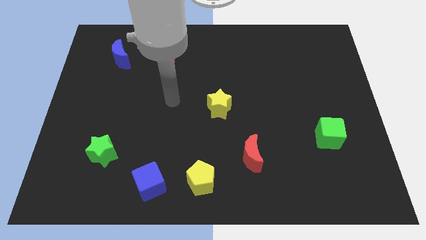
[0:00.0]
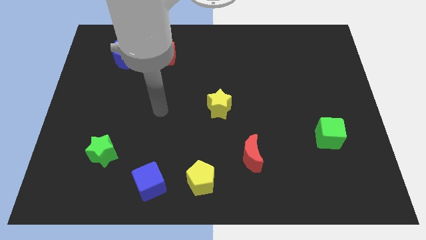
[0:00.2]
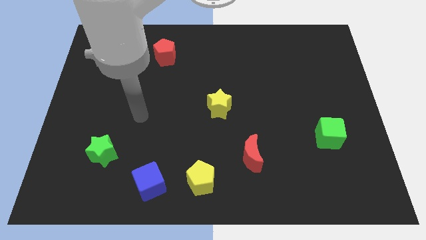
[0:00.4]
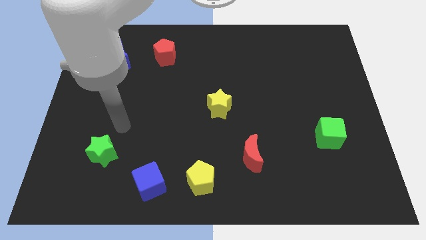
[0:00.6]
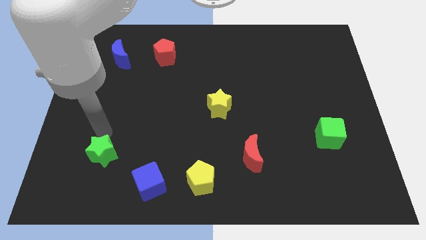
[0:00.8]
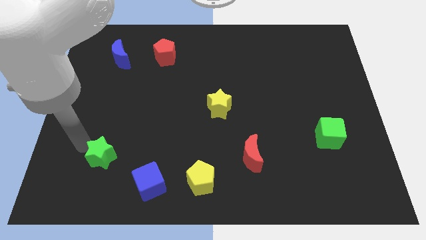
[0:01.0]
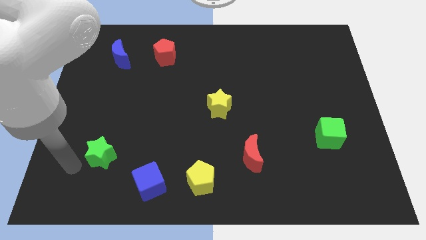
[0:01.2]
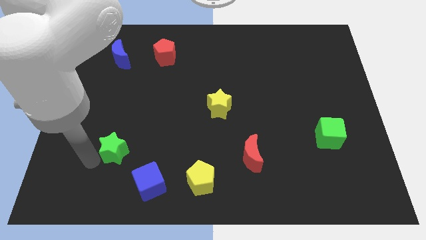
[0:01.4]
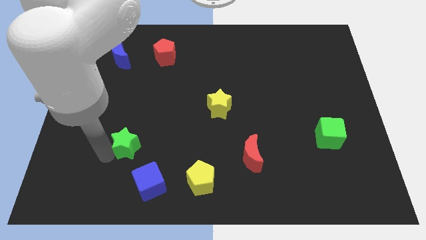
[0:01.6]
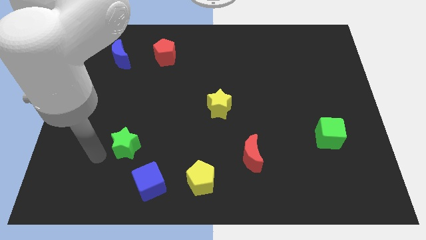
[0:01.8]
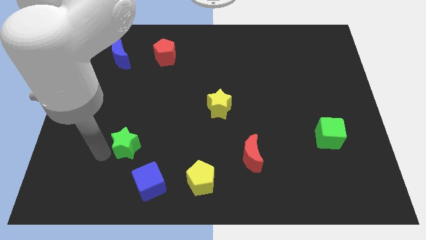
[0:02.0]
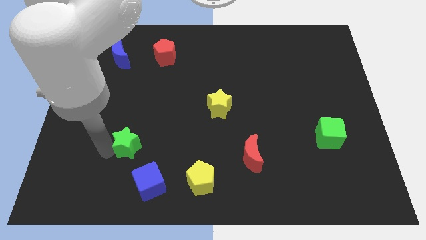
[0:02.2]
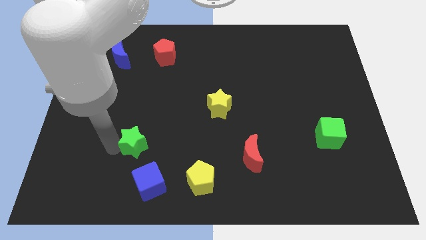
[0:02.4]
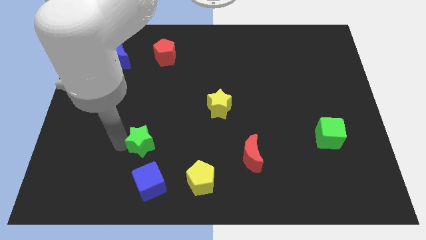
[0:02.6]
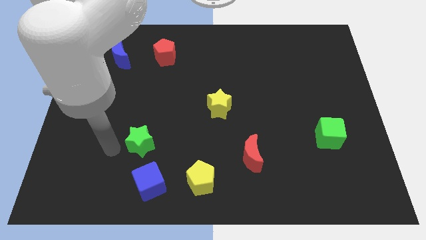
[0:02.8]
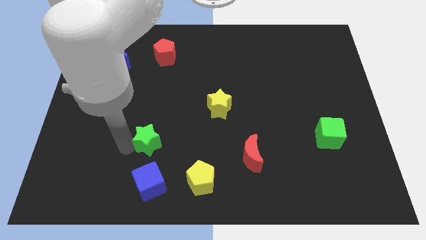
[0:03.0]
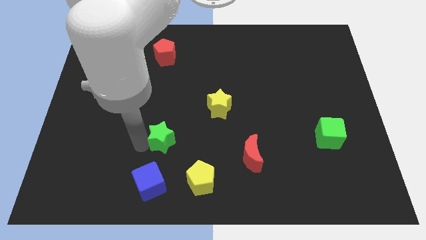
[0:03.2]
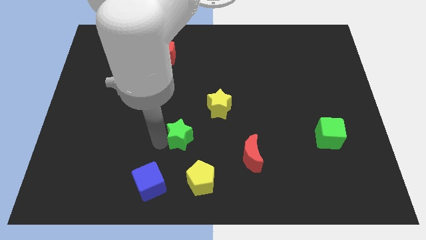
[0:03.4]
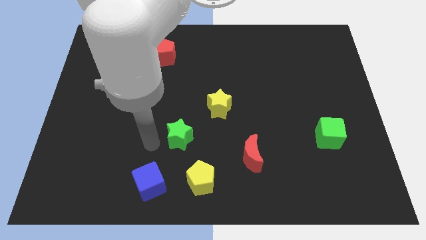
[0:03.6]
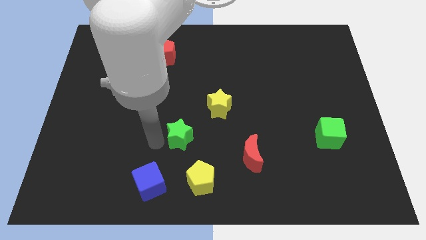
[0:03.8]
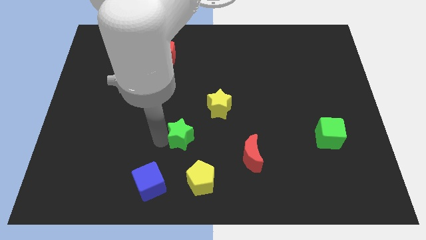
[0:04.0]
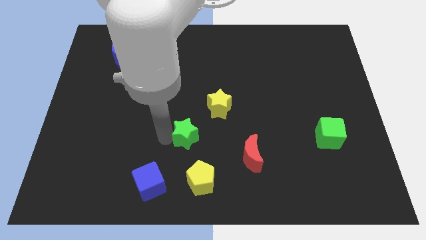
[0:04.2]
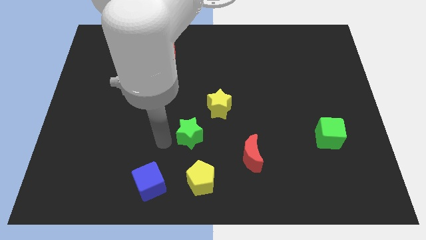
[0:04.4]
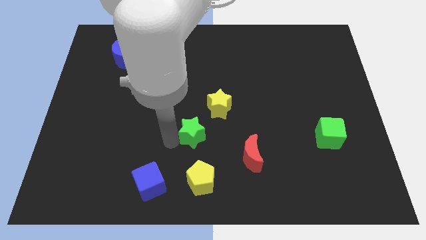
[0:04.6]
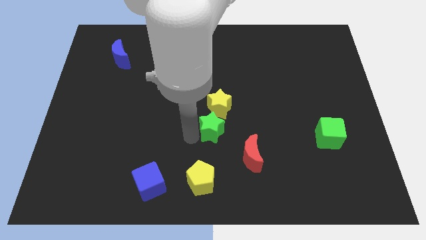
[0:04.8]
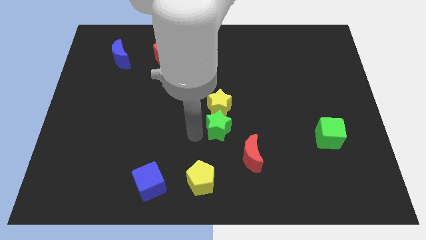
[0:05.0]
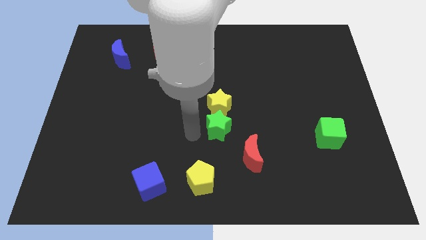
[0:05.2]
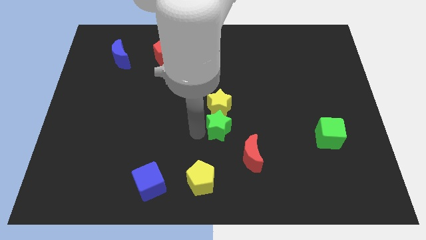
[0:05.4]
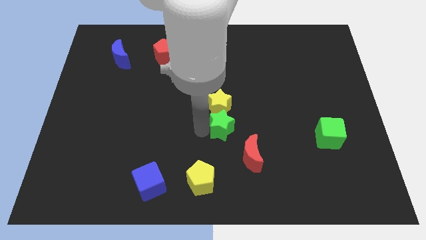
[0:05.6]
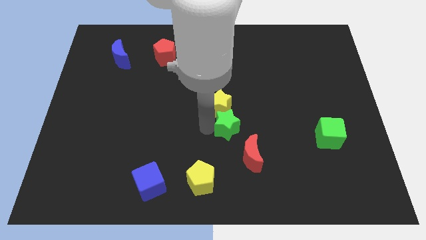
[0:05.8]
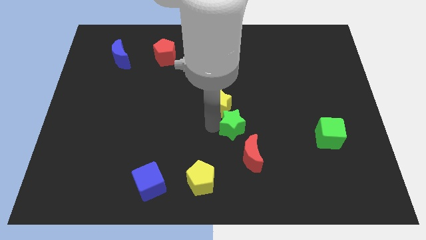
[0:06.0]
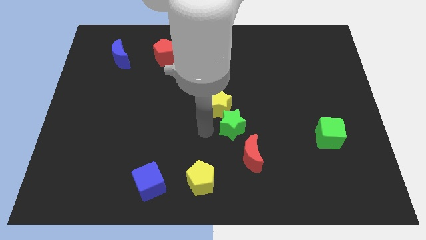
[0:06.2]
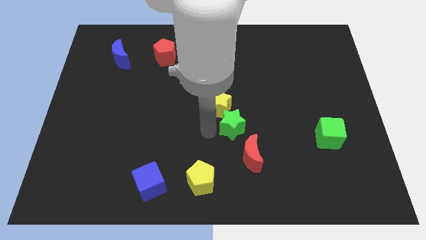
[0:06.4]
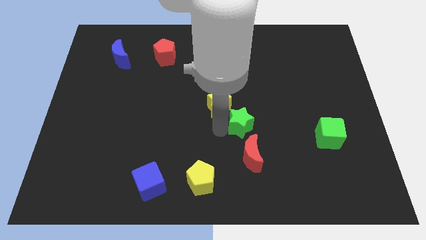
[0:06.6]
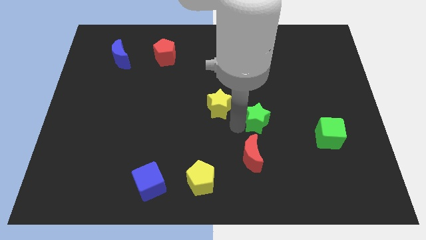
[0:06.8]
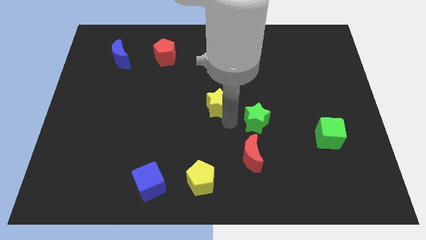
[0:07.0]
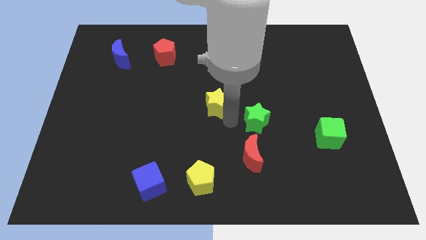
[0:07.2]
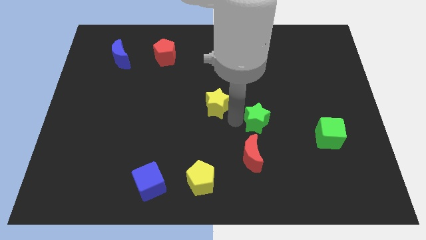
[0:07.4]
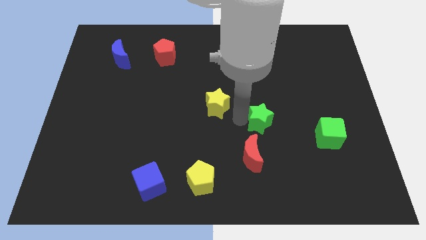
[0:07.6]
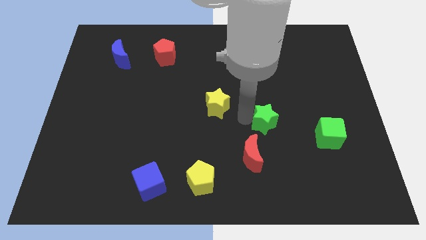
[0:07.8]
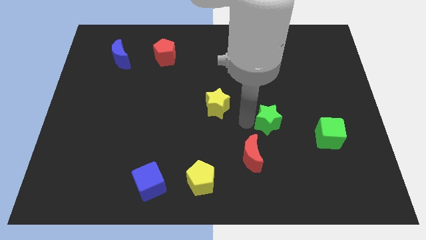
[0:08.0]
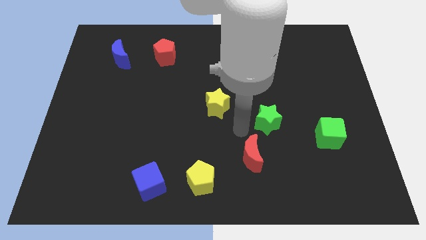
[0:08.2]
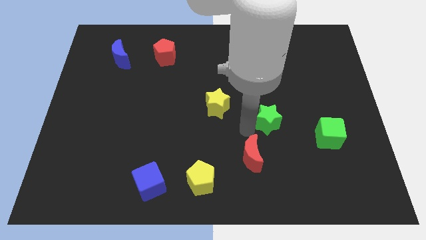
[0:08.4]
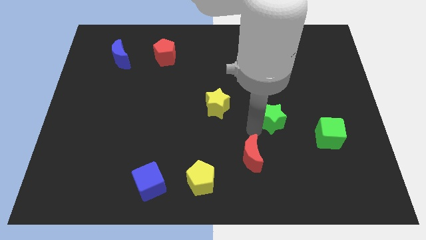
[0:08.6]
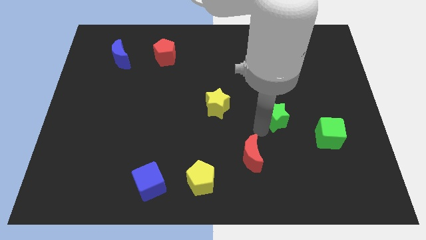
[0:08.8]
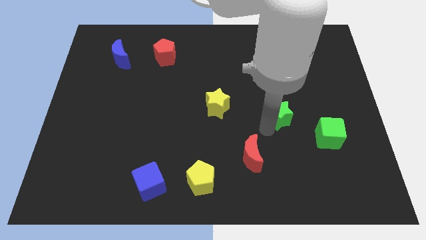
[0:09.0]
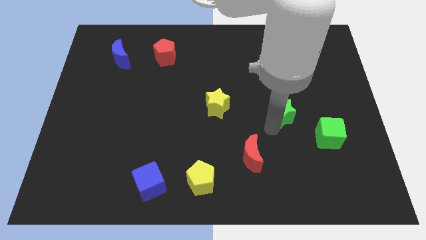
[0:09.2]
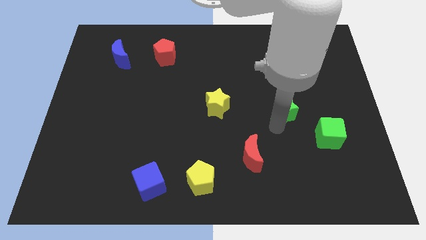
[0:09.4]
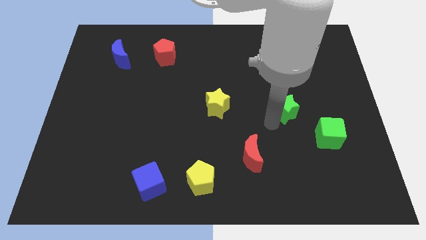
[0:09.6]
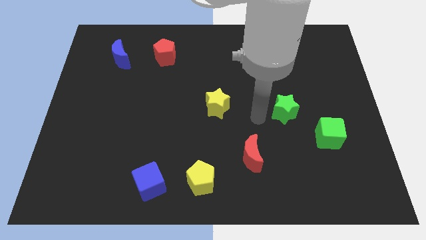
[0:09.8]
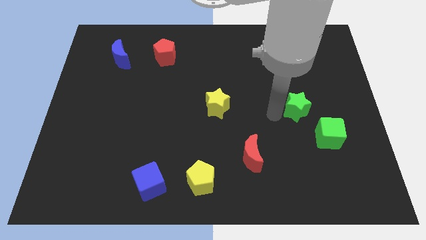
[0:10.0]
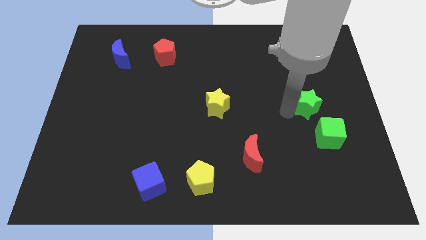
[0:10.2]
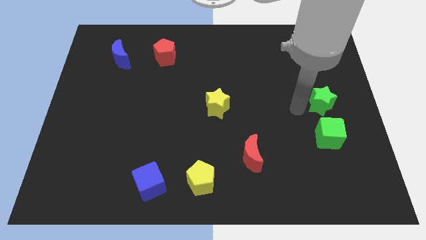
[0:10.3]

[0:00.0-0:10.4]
move the green star to the center right

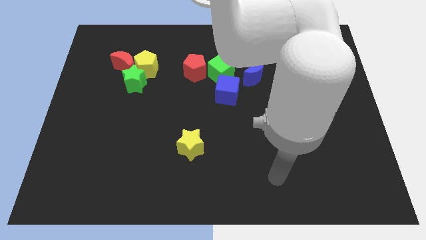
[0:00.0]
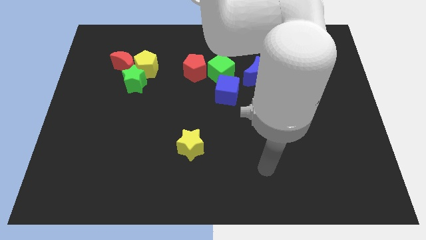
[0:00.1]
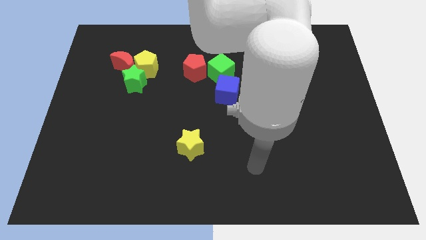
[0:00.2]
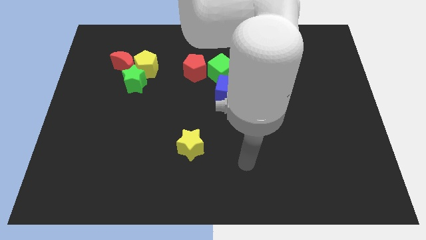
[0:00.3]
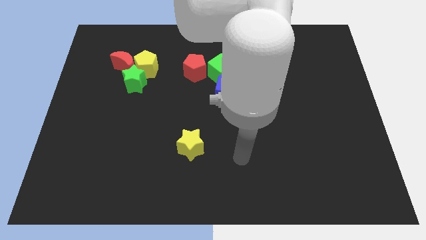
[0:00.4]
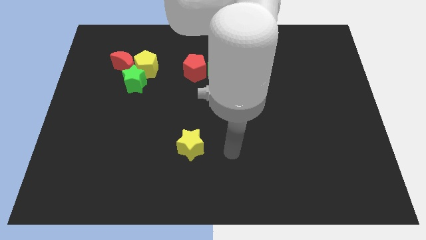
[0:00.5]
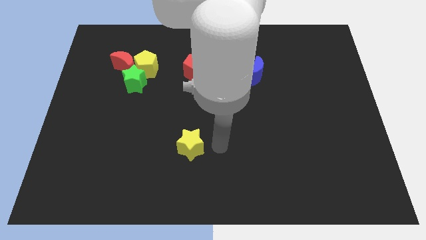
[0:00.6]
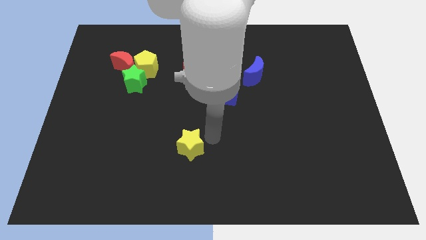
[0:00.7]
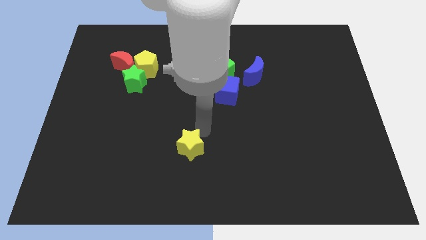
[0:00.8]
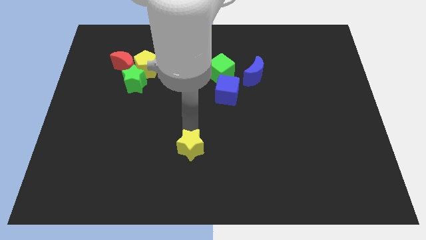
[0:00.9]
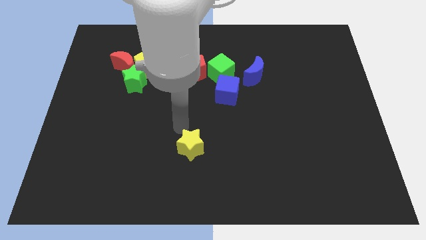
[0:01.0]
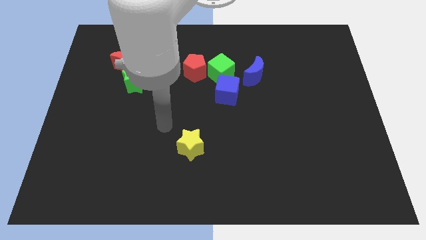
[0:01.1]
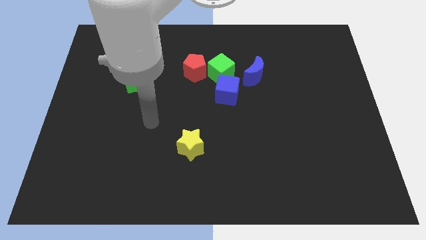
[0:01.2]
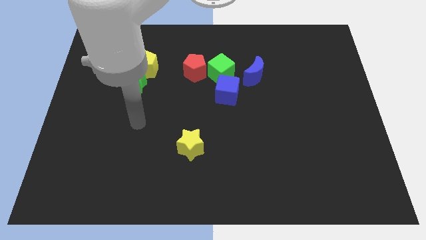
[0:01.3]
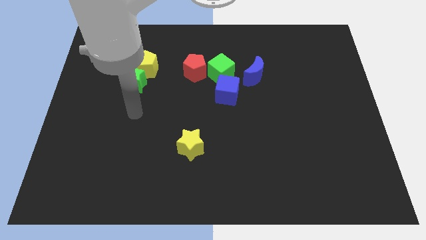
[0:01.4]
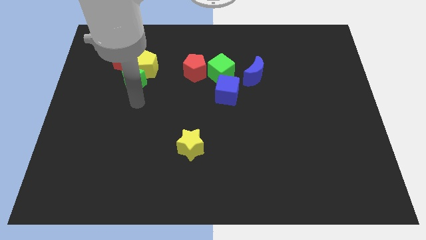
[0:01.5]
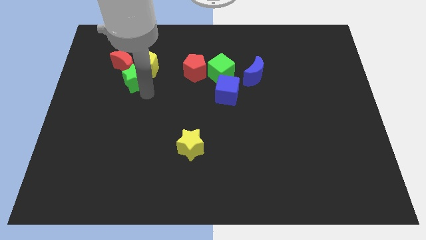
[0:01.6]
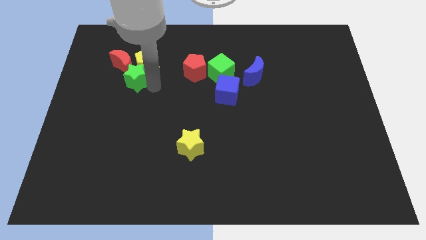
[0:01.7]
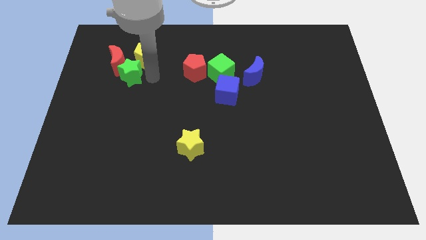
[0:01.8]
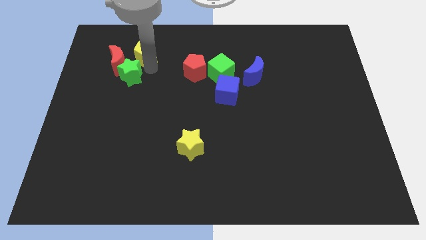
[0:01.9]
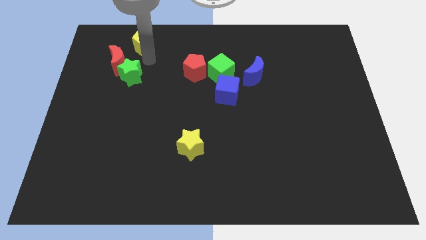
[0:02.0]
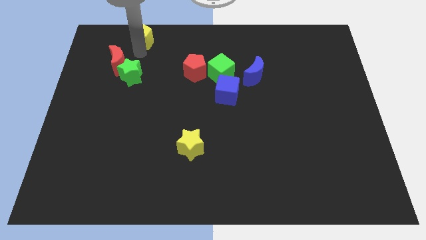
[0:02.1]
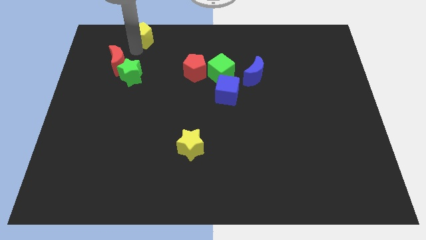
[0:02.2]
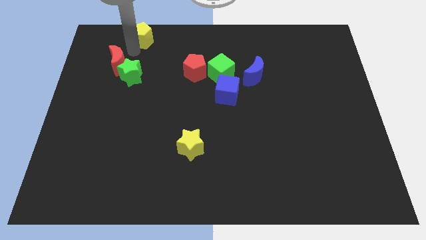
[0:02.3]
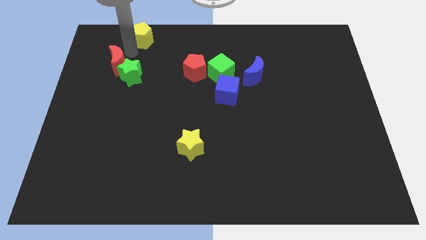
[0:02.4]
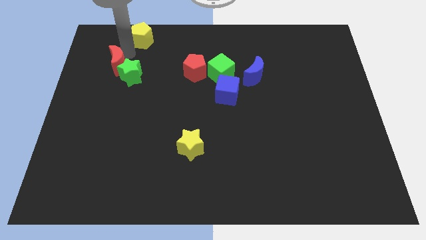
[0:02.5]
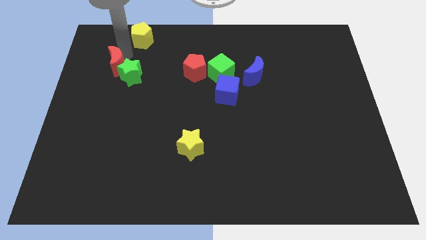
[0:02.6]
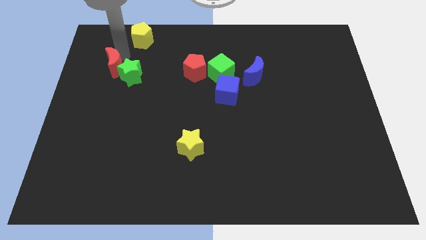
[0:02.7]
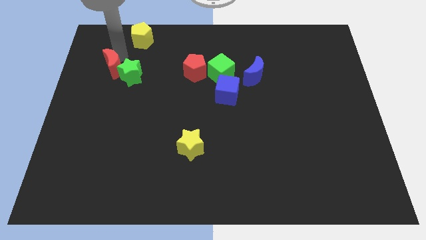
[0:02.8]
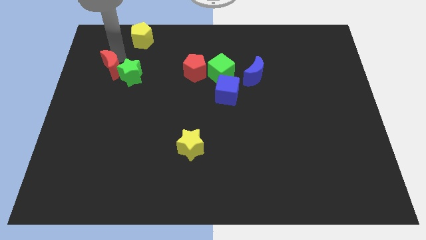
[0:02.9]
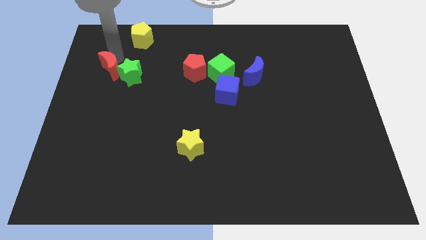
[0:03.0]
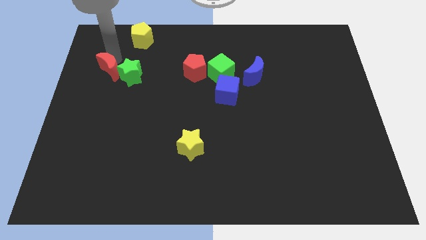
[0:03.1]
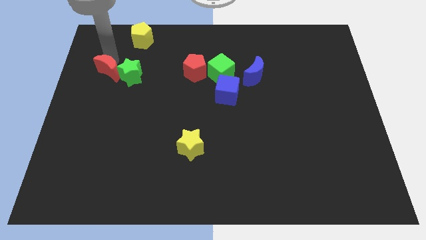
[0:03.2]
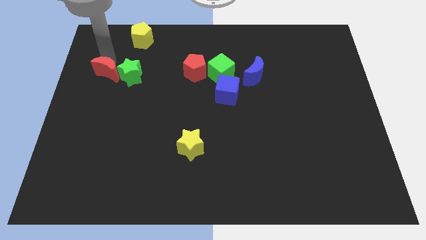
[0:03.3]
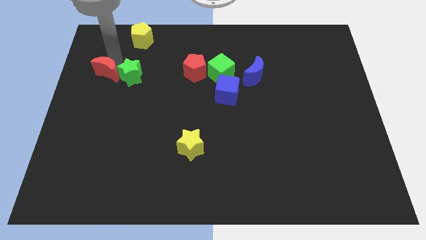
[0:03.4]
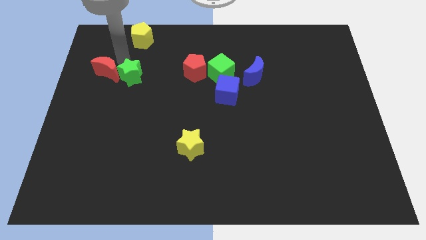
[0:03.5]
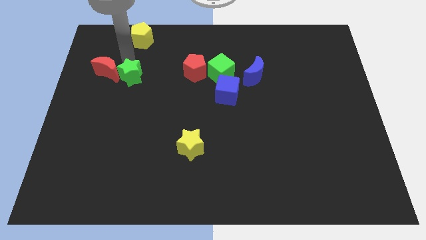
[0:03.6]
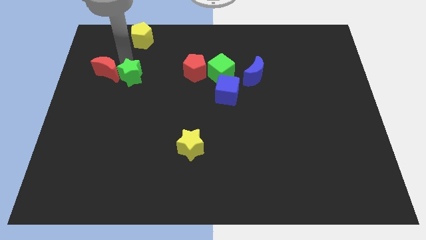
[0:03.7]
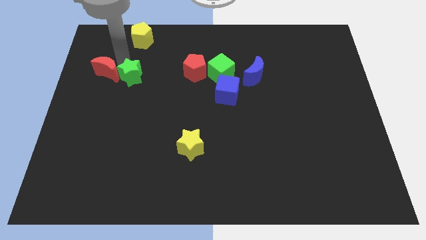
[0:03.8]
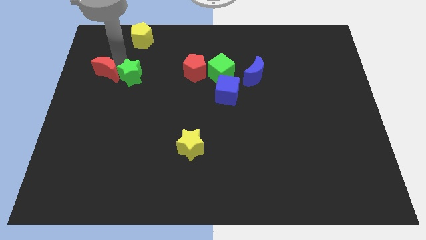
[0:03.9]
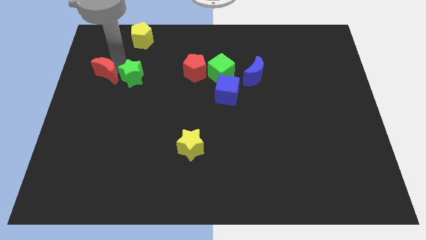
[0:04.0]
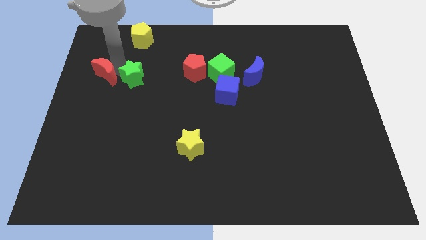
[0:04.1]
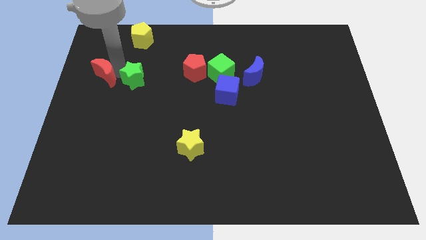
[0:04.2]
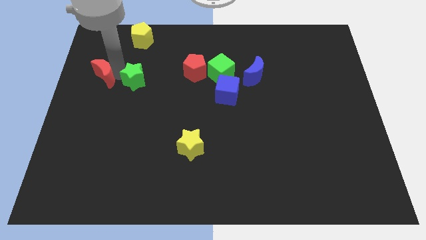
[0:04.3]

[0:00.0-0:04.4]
move the red moon to the left side of the board
